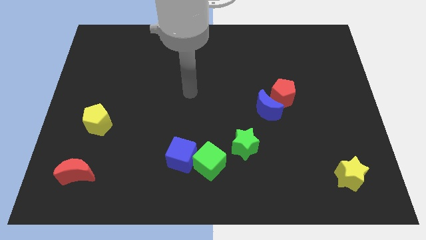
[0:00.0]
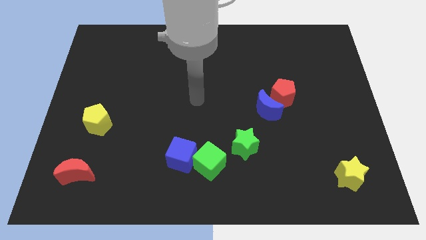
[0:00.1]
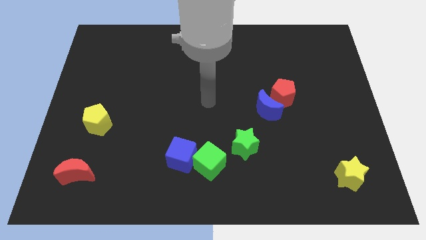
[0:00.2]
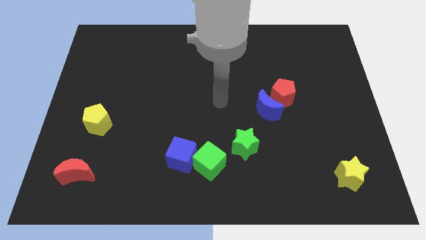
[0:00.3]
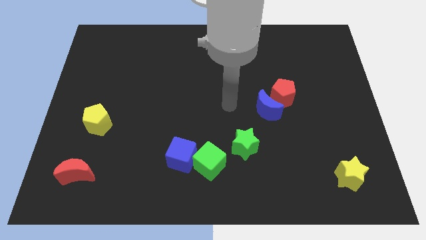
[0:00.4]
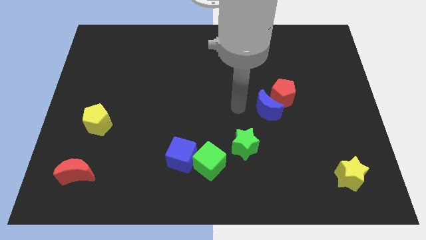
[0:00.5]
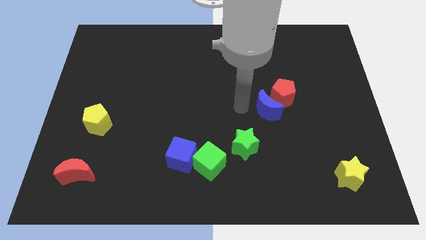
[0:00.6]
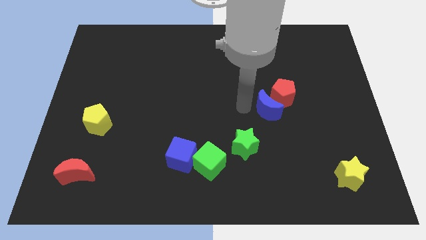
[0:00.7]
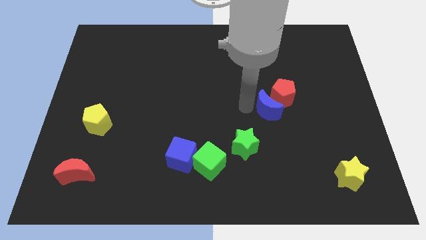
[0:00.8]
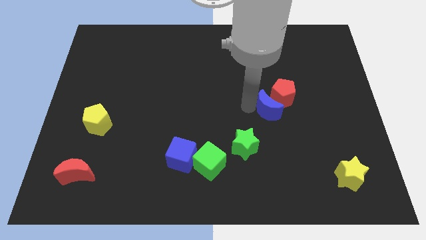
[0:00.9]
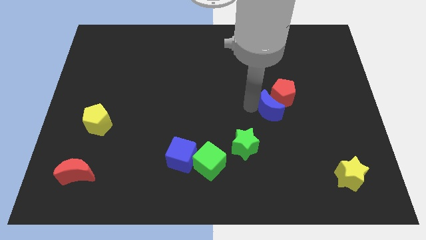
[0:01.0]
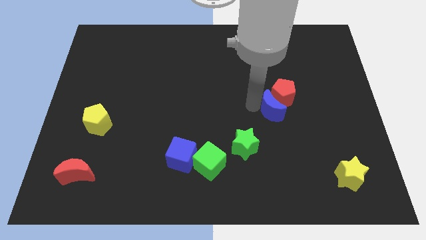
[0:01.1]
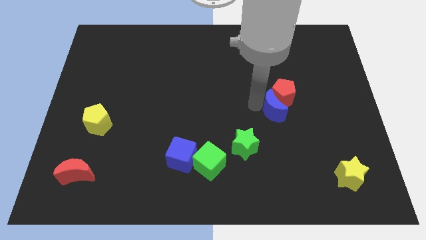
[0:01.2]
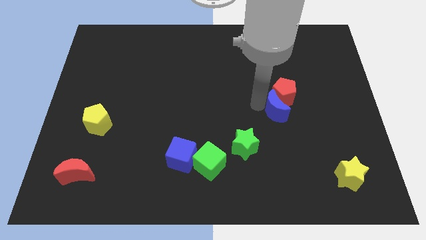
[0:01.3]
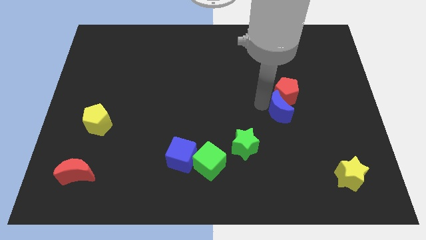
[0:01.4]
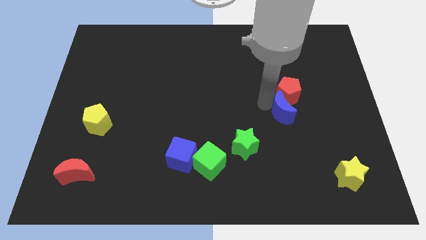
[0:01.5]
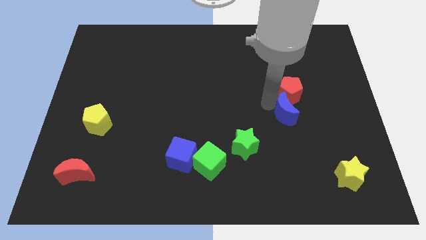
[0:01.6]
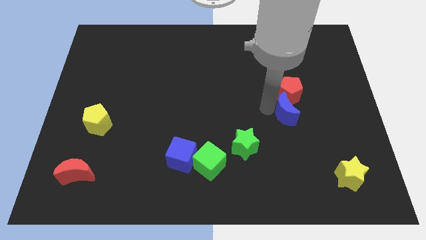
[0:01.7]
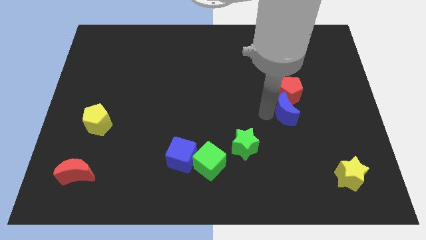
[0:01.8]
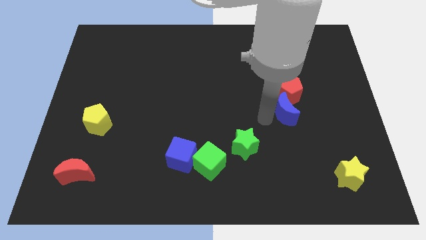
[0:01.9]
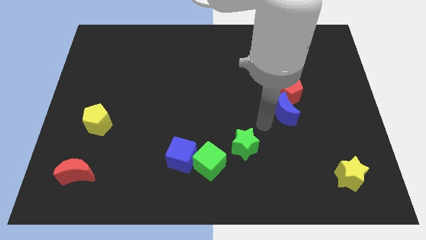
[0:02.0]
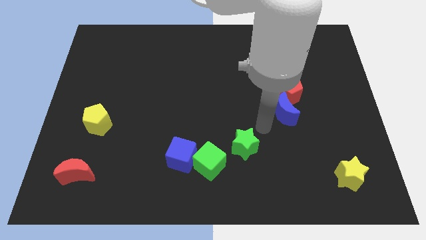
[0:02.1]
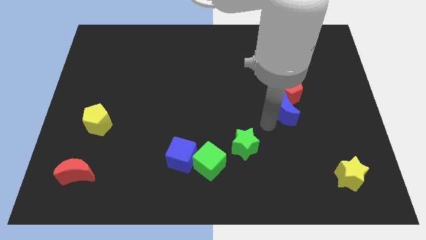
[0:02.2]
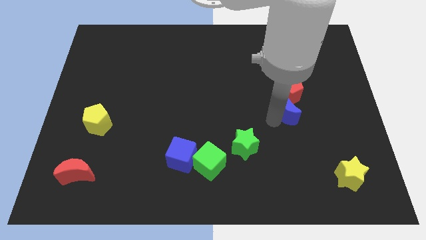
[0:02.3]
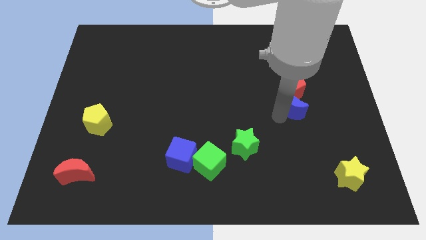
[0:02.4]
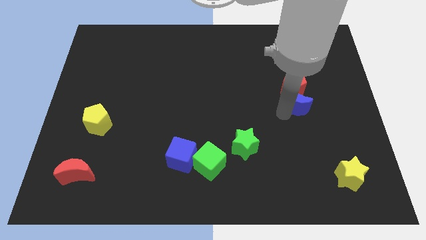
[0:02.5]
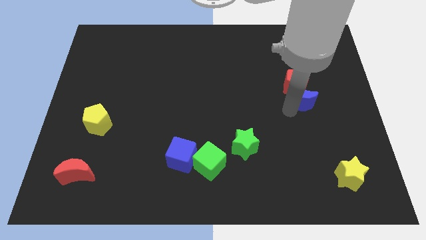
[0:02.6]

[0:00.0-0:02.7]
push the blue moon a bit up and right diagonally

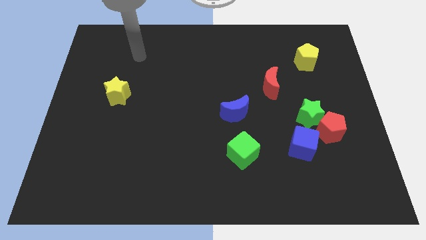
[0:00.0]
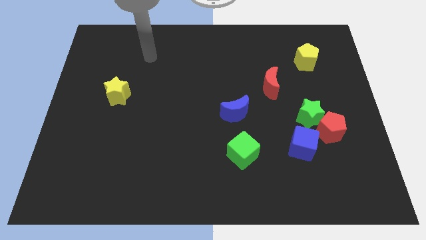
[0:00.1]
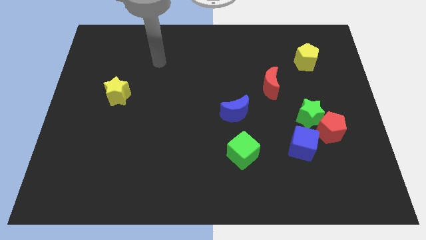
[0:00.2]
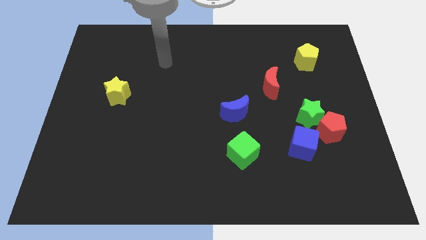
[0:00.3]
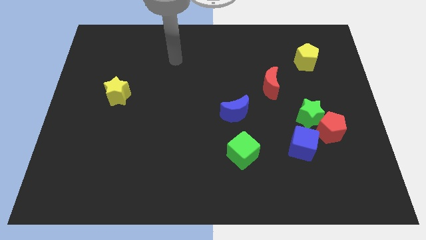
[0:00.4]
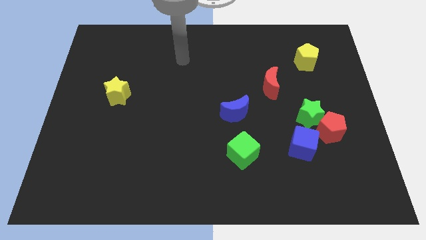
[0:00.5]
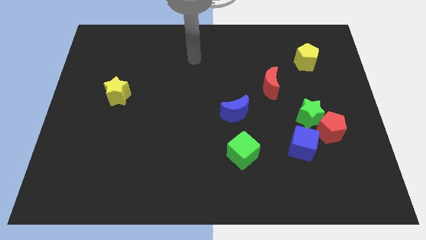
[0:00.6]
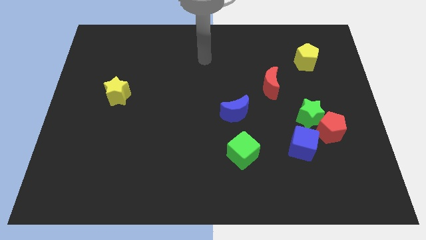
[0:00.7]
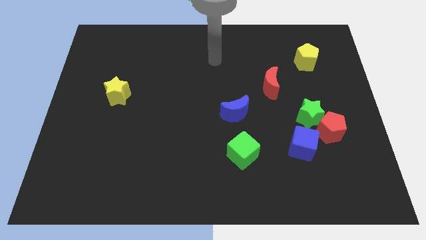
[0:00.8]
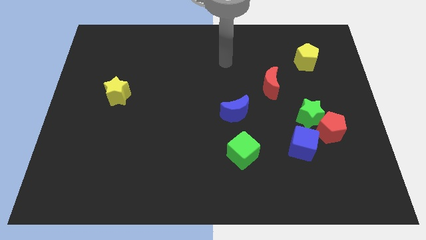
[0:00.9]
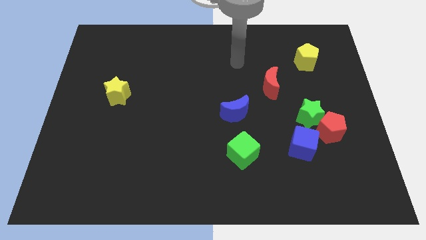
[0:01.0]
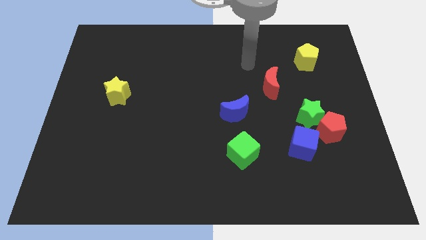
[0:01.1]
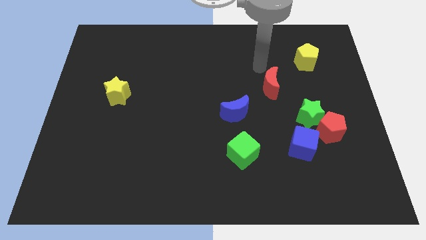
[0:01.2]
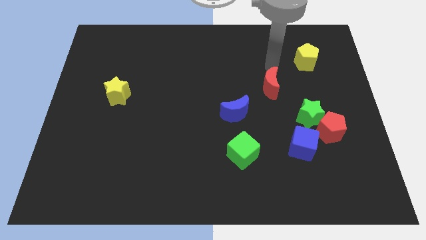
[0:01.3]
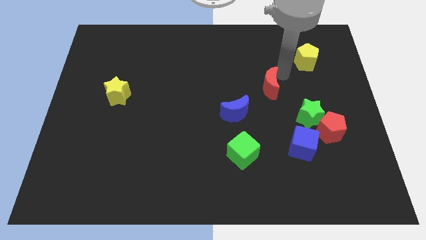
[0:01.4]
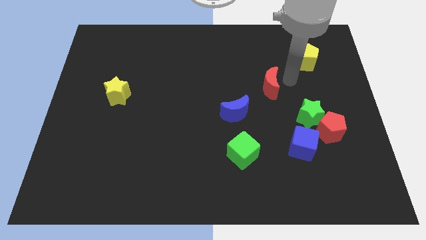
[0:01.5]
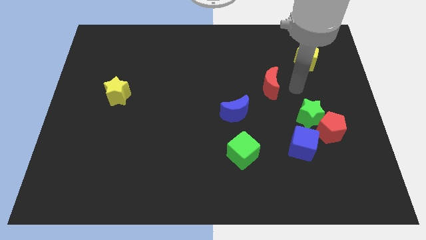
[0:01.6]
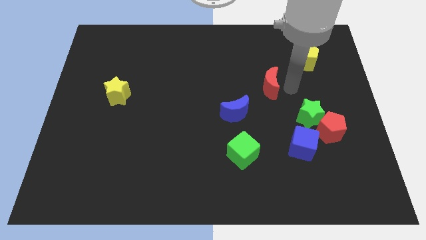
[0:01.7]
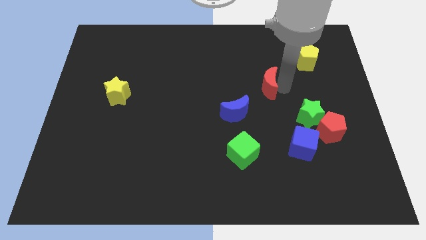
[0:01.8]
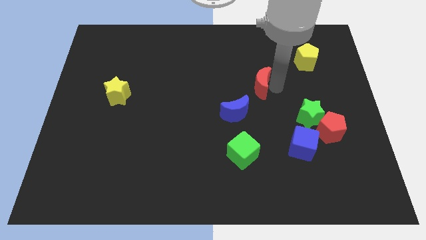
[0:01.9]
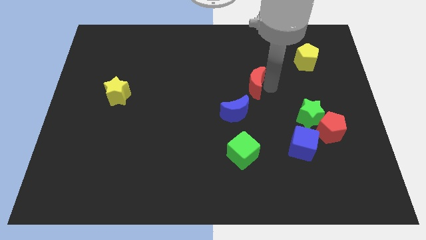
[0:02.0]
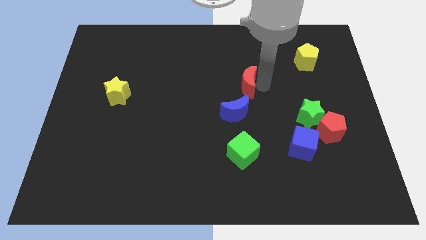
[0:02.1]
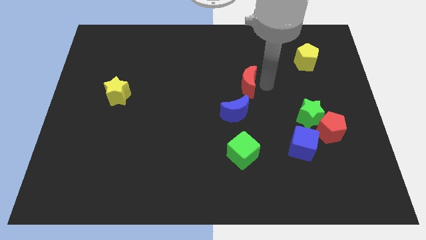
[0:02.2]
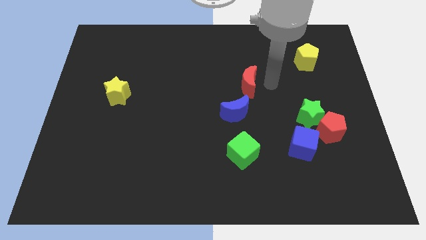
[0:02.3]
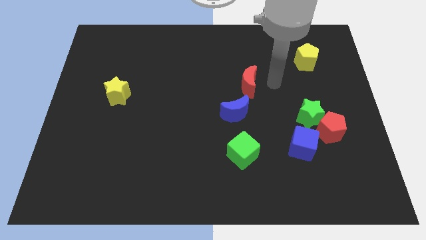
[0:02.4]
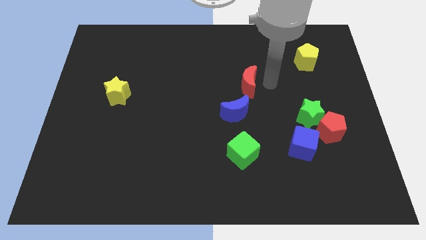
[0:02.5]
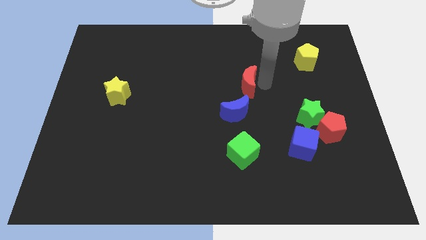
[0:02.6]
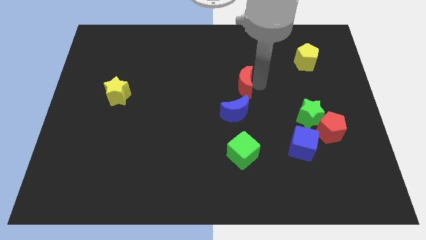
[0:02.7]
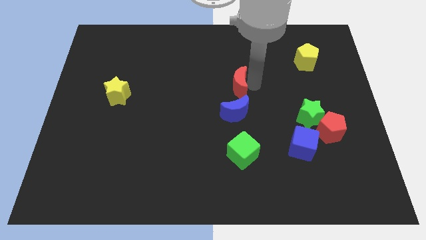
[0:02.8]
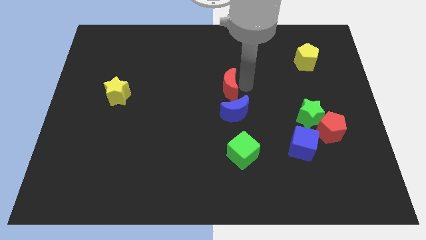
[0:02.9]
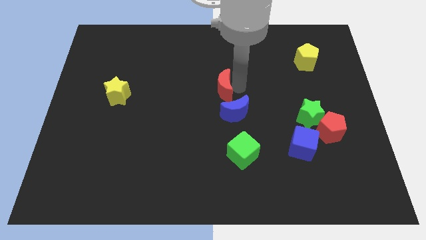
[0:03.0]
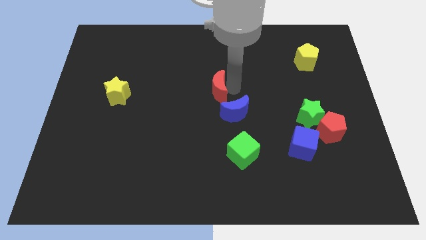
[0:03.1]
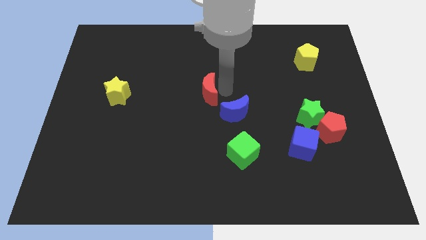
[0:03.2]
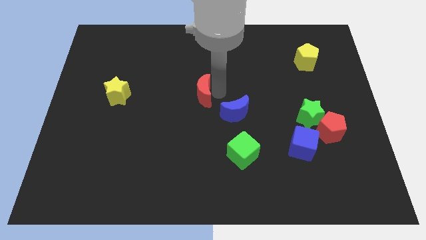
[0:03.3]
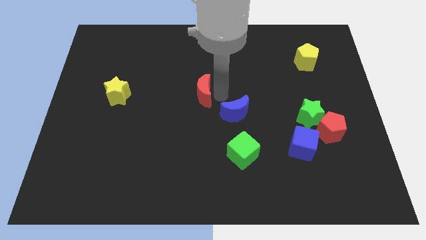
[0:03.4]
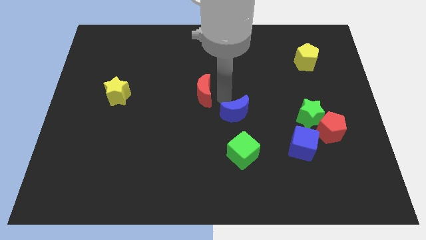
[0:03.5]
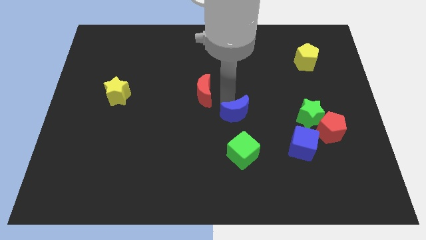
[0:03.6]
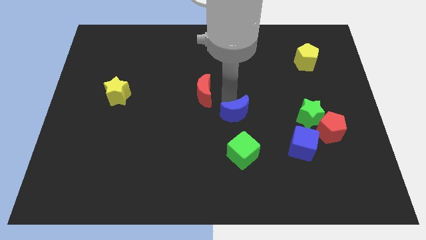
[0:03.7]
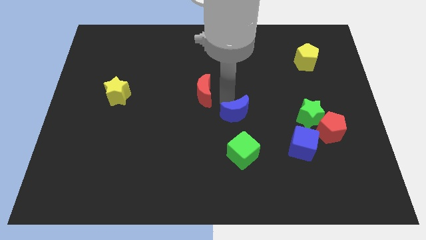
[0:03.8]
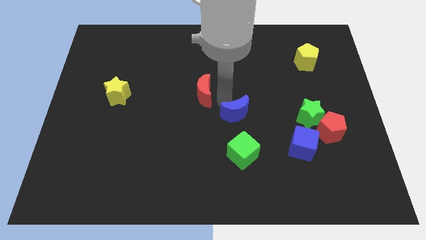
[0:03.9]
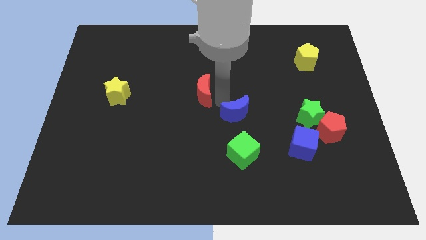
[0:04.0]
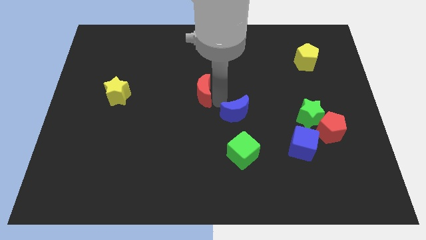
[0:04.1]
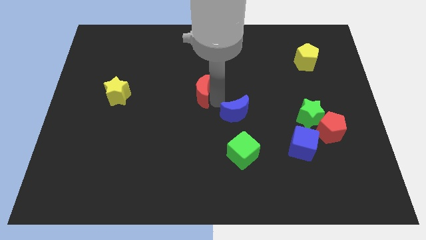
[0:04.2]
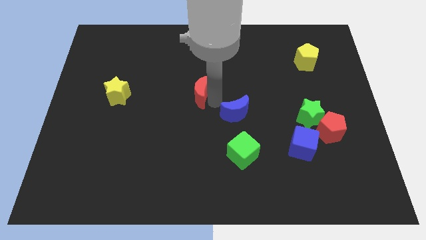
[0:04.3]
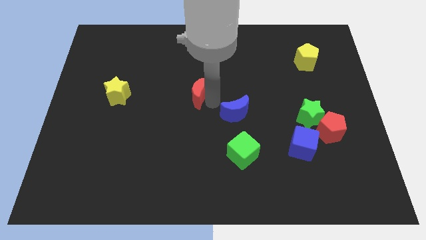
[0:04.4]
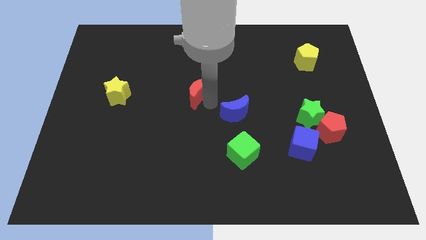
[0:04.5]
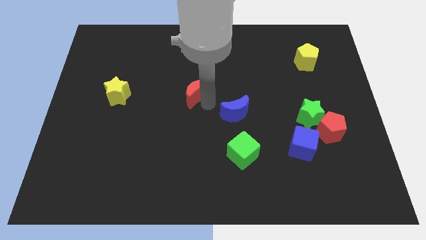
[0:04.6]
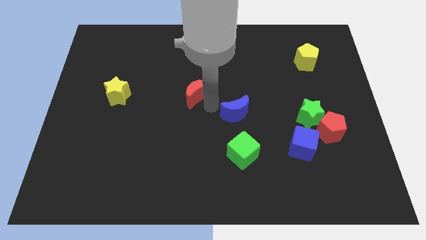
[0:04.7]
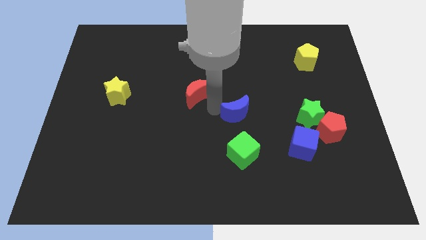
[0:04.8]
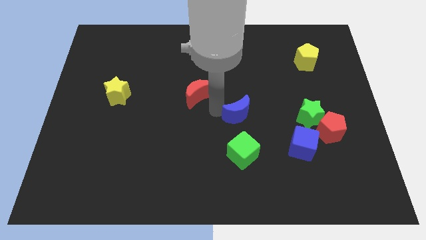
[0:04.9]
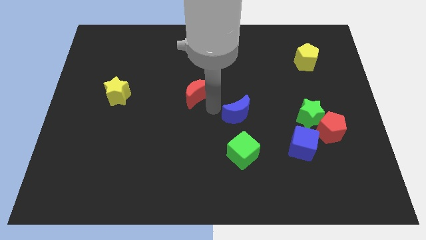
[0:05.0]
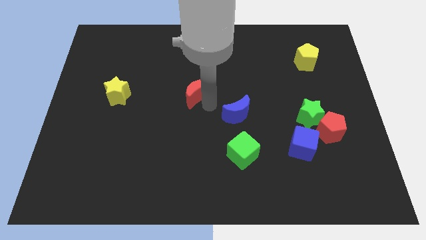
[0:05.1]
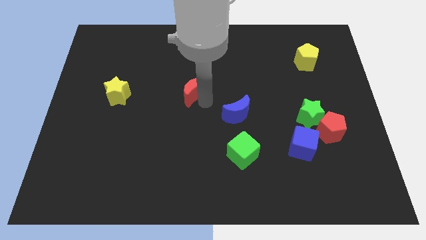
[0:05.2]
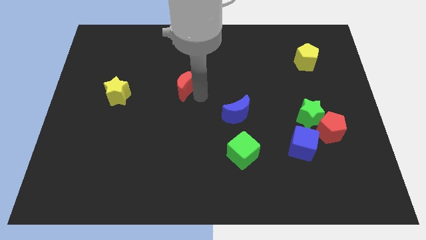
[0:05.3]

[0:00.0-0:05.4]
slide the red moon left
